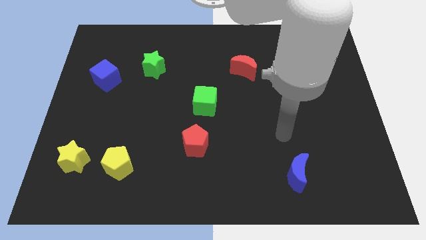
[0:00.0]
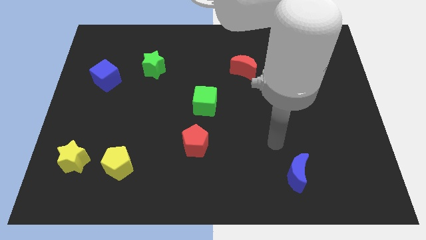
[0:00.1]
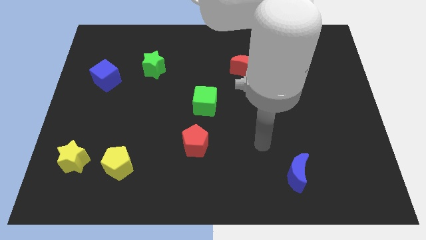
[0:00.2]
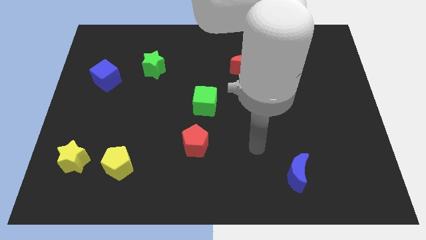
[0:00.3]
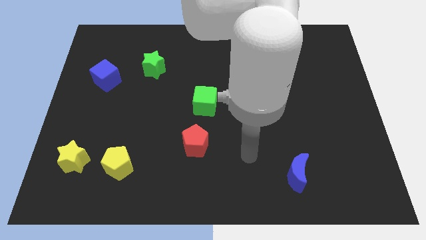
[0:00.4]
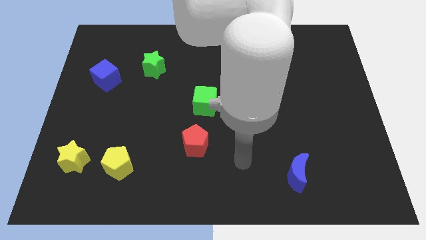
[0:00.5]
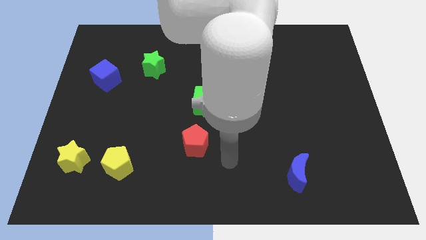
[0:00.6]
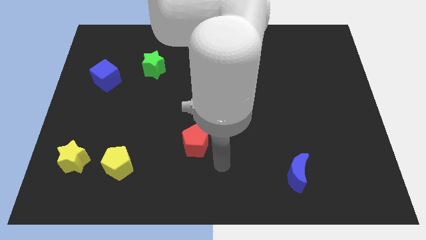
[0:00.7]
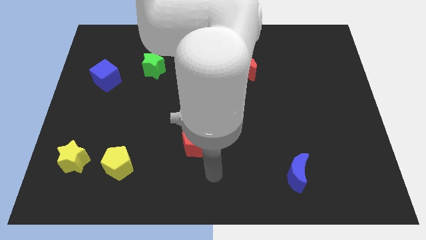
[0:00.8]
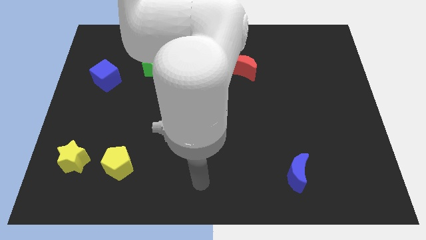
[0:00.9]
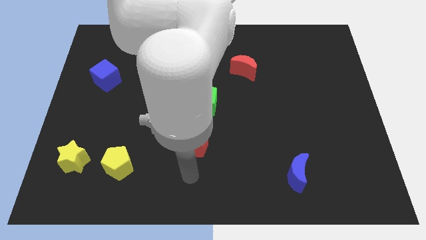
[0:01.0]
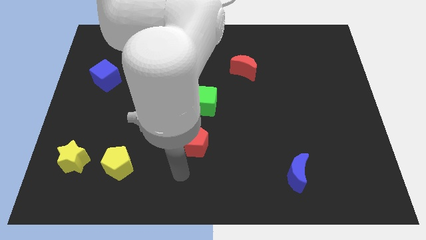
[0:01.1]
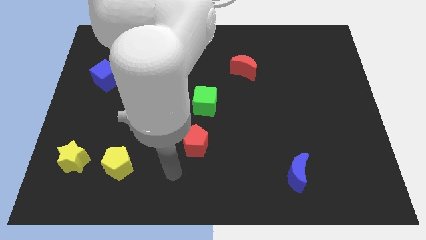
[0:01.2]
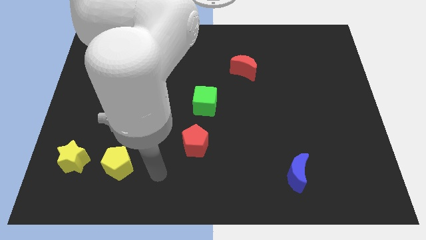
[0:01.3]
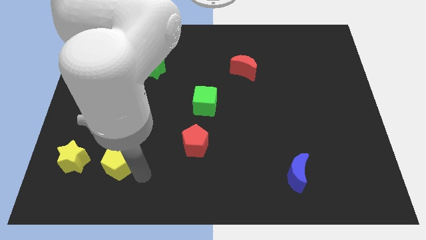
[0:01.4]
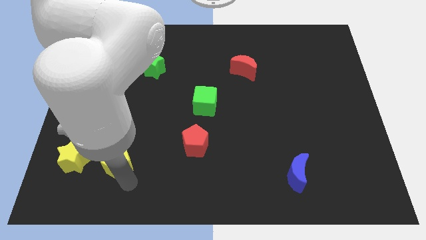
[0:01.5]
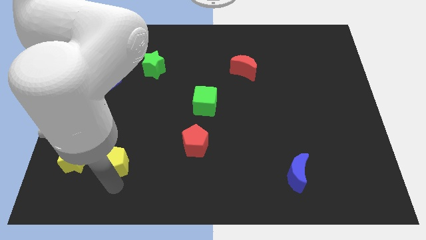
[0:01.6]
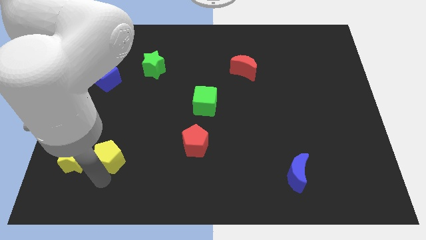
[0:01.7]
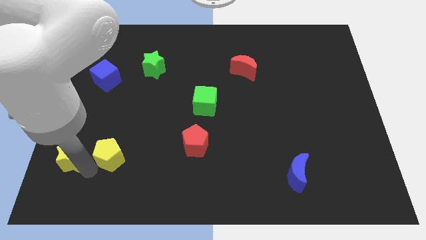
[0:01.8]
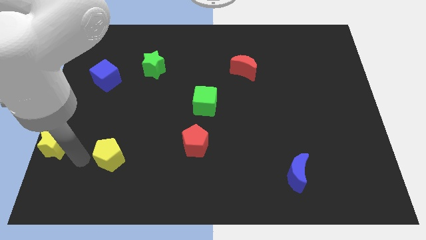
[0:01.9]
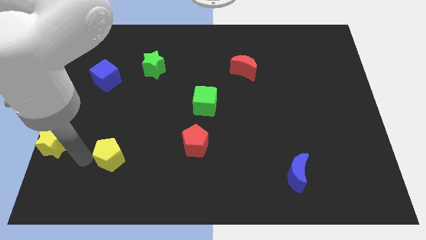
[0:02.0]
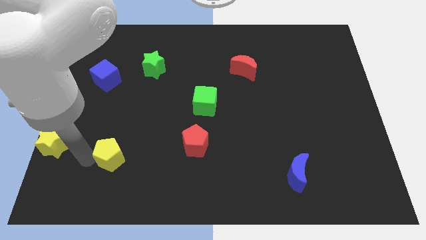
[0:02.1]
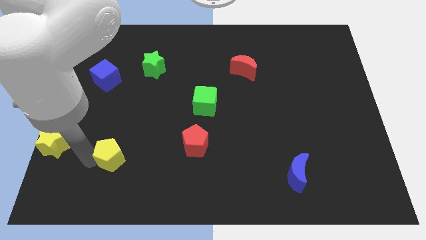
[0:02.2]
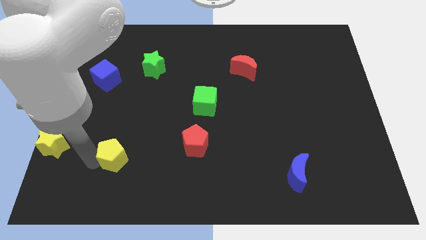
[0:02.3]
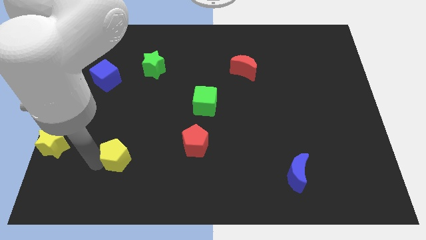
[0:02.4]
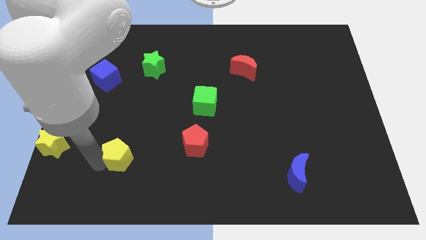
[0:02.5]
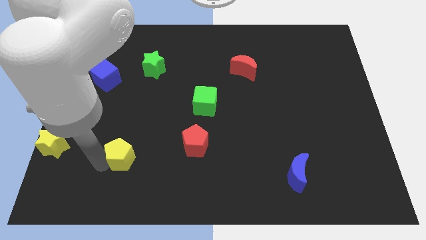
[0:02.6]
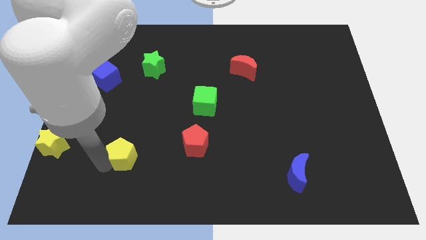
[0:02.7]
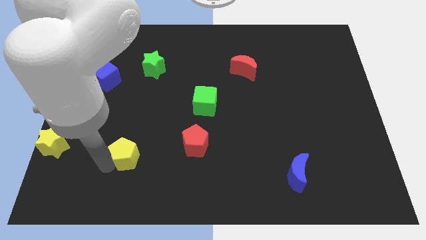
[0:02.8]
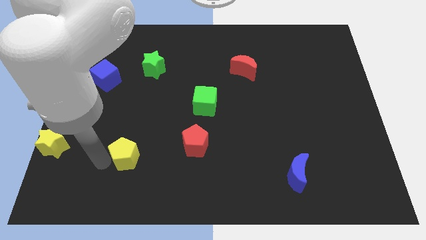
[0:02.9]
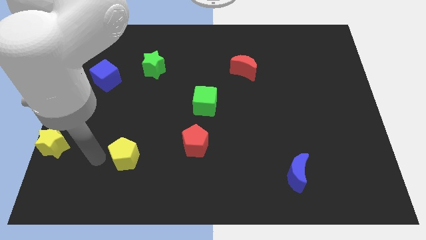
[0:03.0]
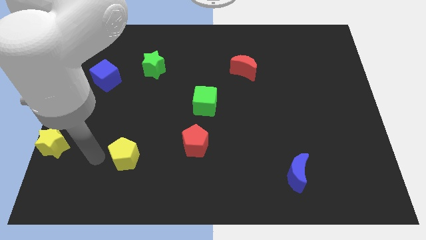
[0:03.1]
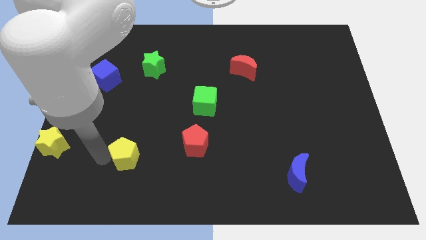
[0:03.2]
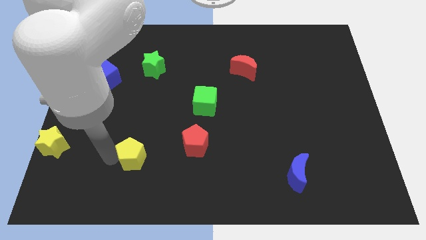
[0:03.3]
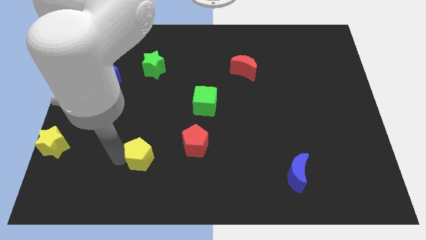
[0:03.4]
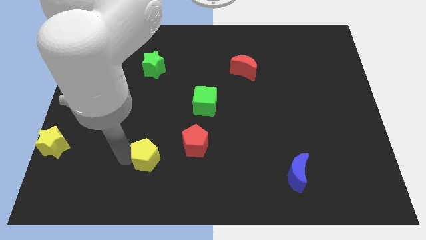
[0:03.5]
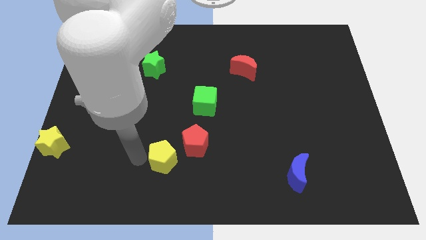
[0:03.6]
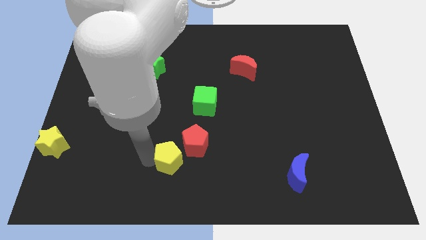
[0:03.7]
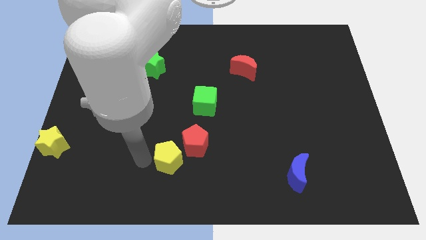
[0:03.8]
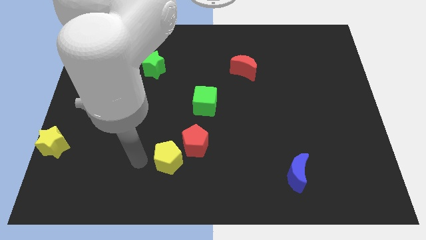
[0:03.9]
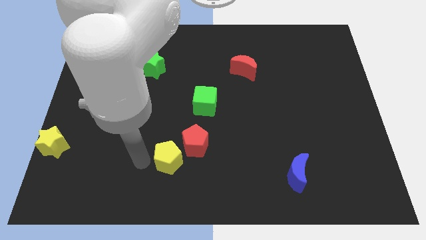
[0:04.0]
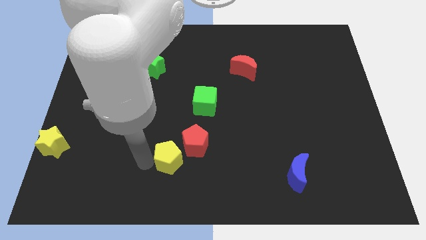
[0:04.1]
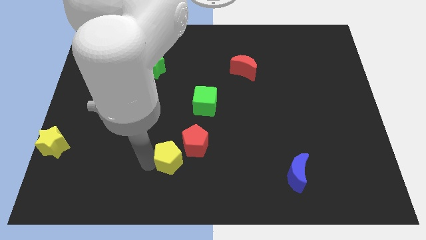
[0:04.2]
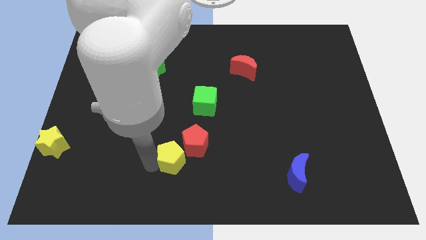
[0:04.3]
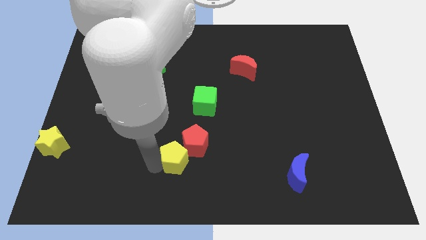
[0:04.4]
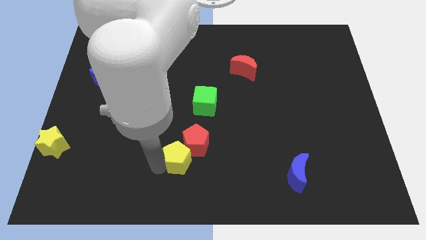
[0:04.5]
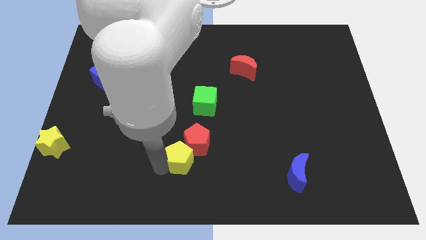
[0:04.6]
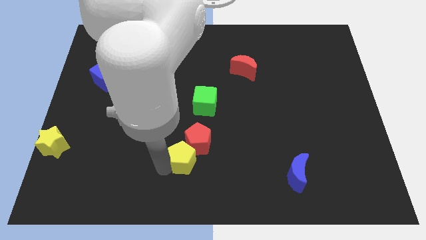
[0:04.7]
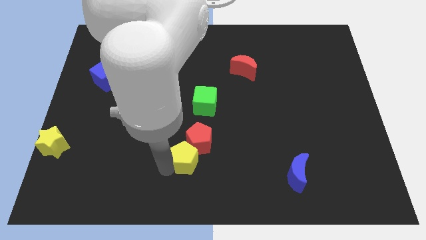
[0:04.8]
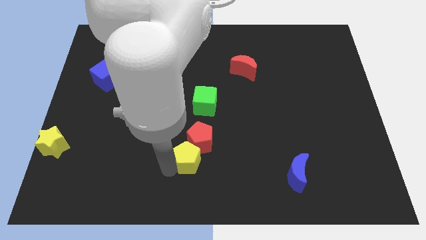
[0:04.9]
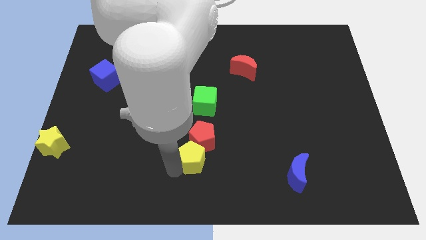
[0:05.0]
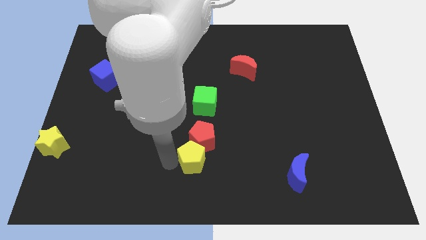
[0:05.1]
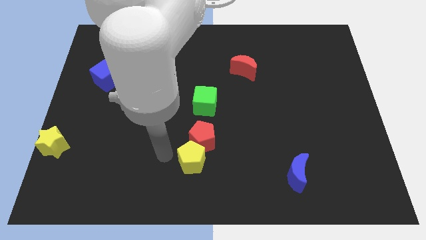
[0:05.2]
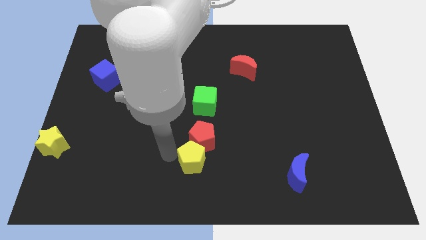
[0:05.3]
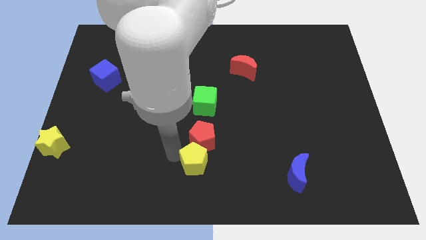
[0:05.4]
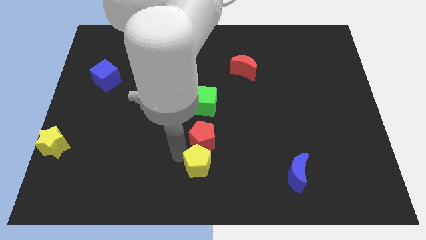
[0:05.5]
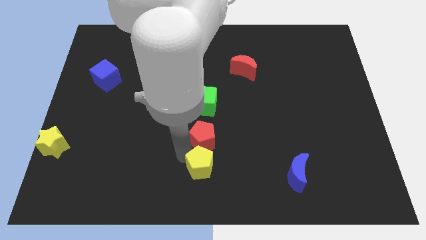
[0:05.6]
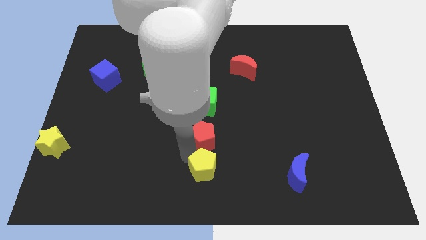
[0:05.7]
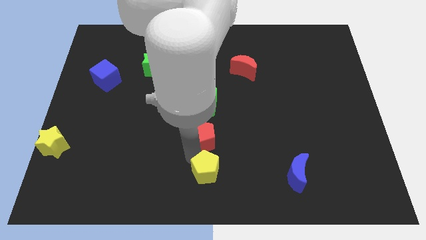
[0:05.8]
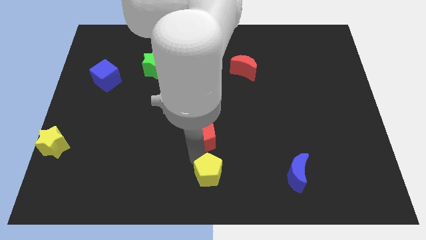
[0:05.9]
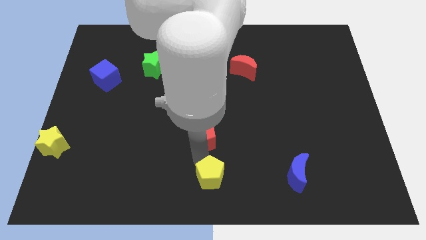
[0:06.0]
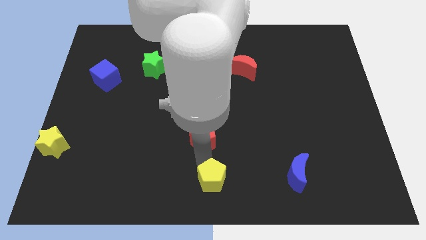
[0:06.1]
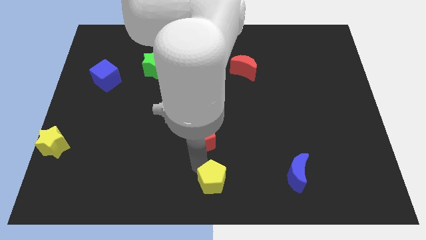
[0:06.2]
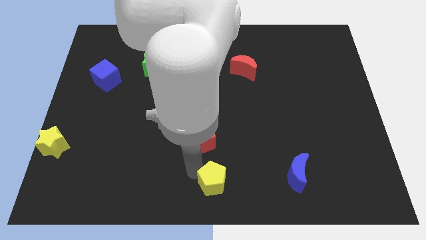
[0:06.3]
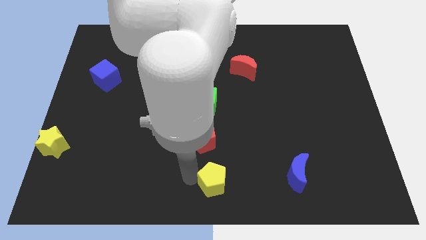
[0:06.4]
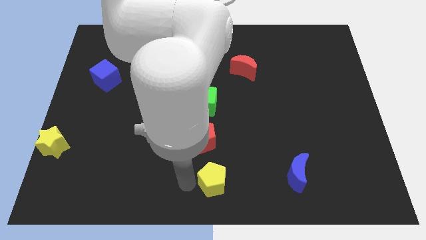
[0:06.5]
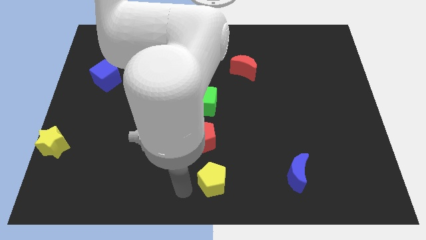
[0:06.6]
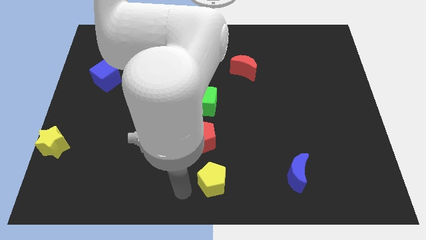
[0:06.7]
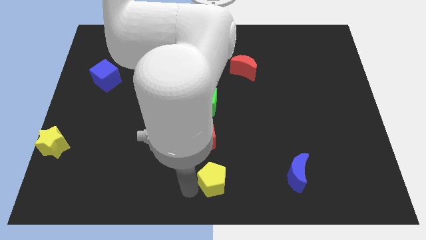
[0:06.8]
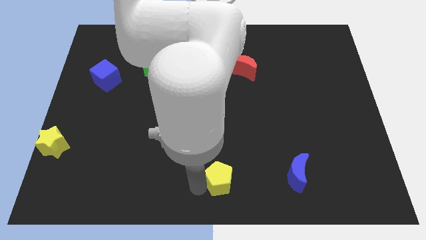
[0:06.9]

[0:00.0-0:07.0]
slide the yellow pentagon to the left of the blue moon
